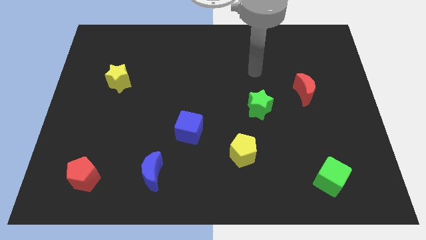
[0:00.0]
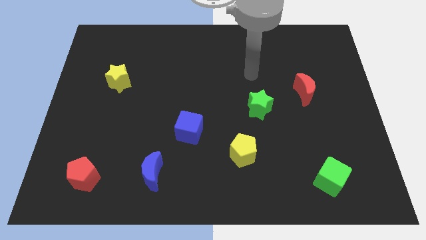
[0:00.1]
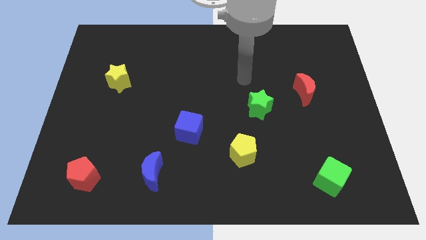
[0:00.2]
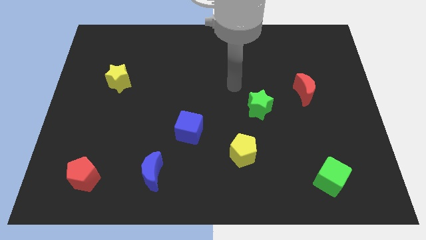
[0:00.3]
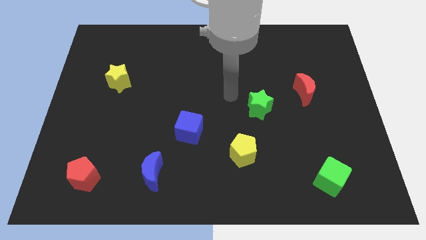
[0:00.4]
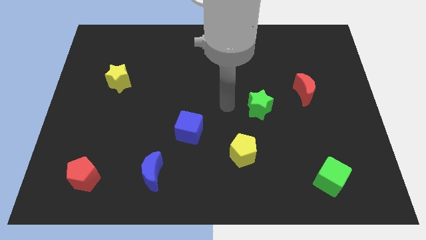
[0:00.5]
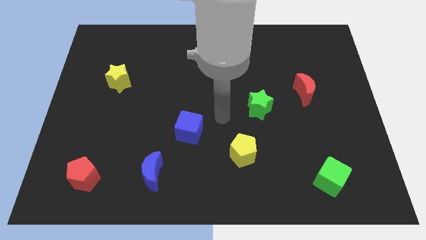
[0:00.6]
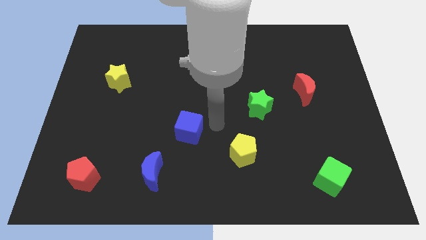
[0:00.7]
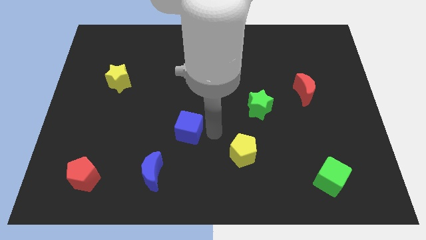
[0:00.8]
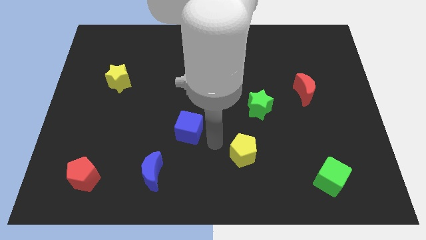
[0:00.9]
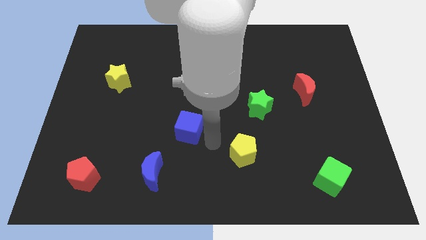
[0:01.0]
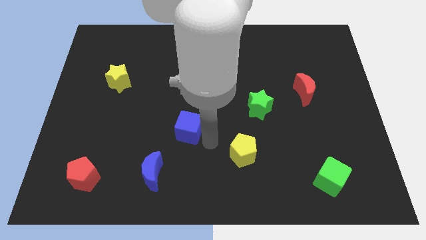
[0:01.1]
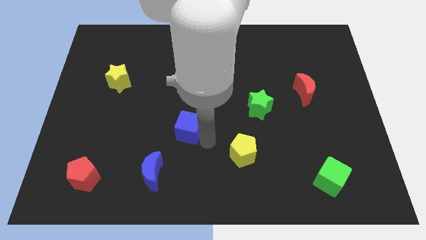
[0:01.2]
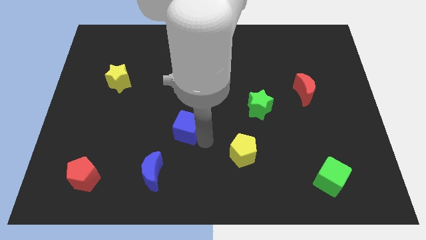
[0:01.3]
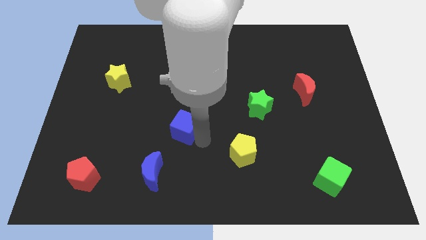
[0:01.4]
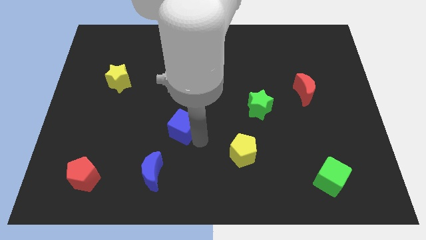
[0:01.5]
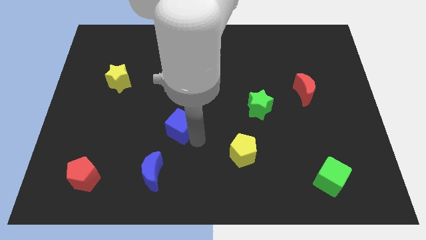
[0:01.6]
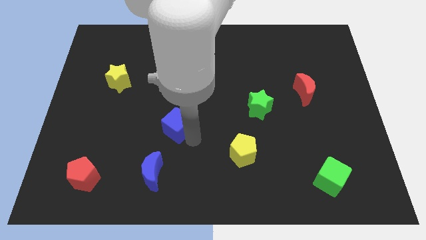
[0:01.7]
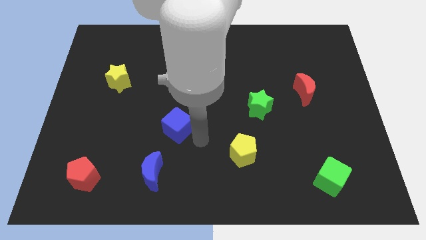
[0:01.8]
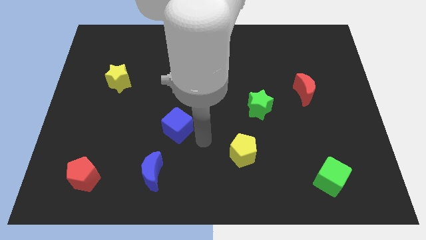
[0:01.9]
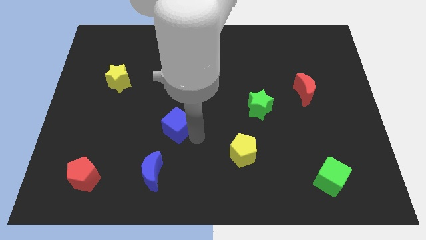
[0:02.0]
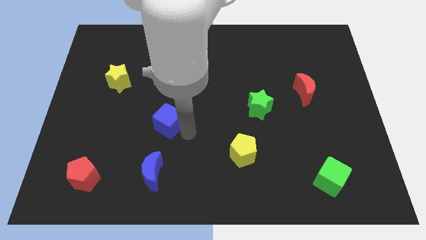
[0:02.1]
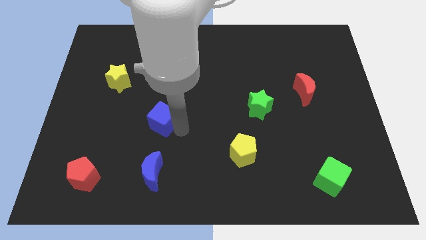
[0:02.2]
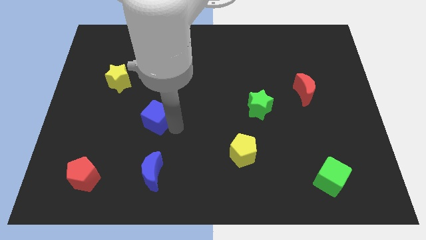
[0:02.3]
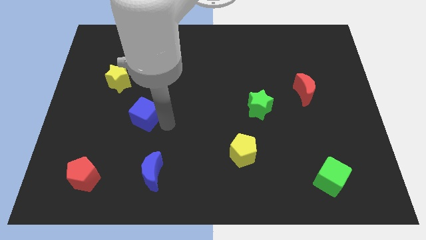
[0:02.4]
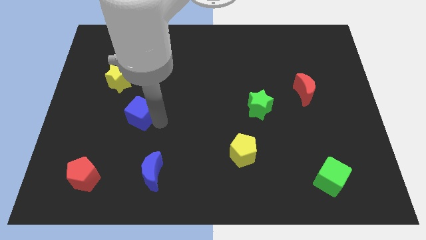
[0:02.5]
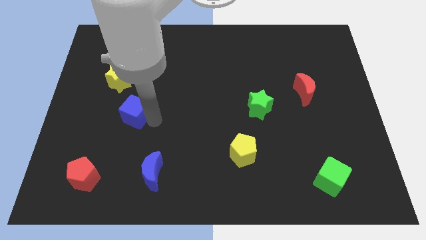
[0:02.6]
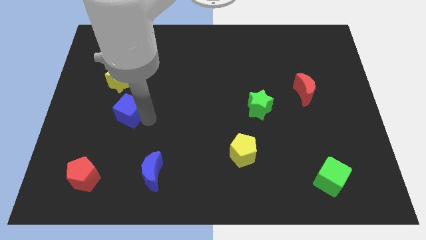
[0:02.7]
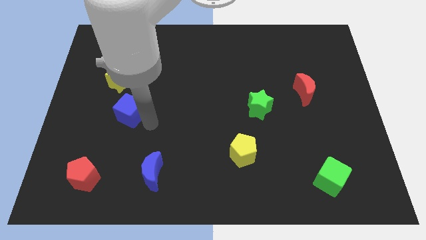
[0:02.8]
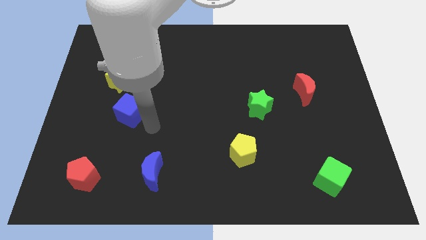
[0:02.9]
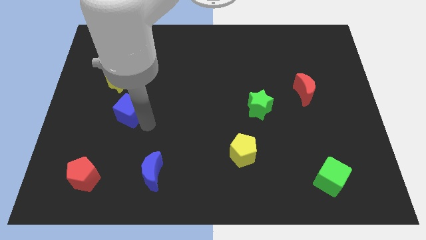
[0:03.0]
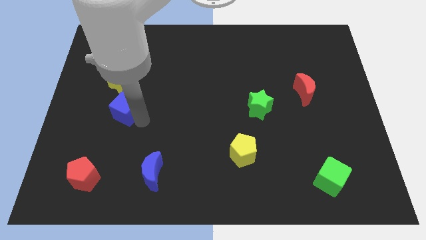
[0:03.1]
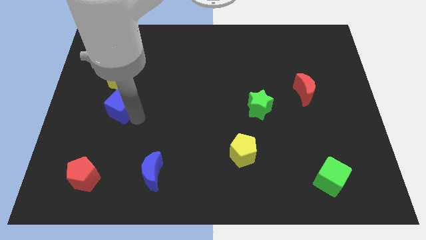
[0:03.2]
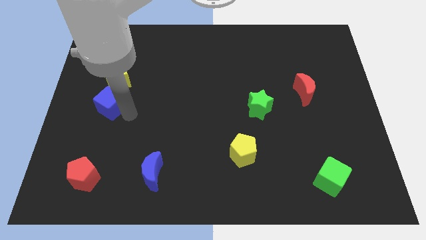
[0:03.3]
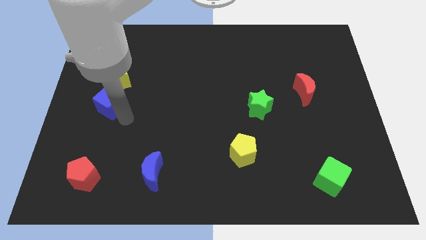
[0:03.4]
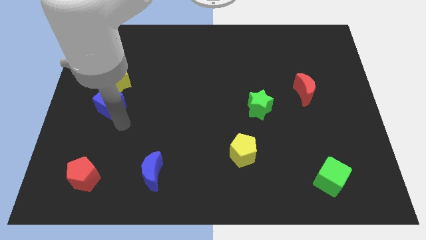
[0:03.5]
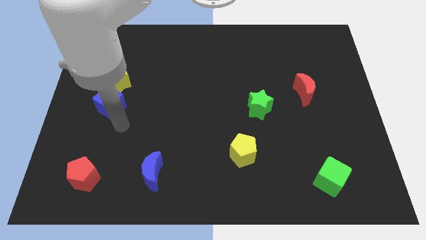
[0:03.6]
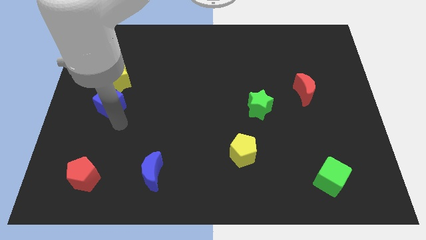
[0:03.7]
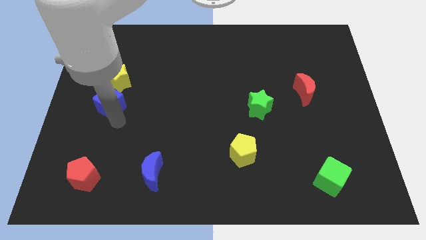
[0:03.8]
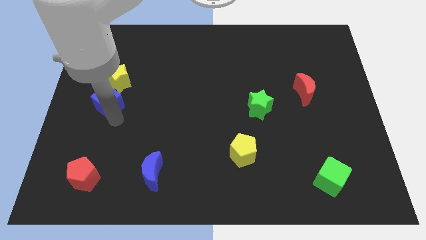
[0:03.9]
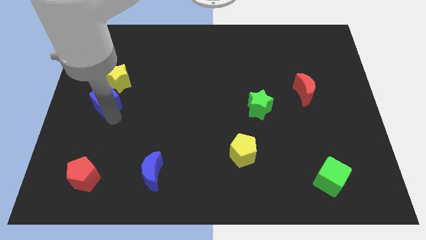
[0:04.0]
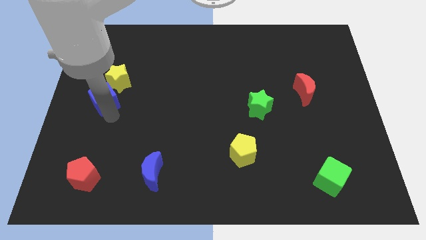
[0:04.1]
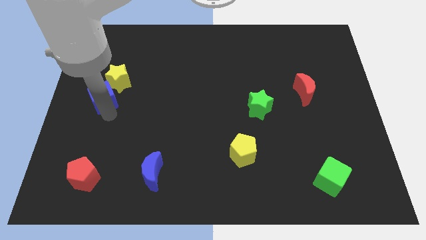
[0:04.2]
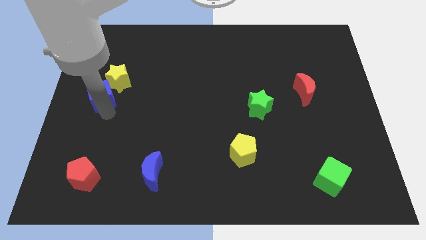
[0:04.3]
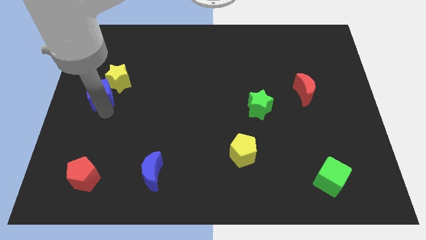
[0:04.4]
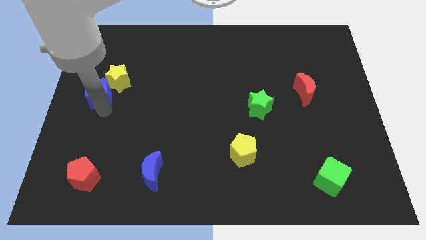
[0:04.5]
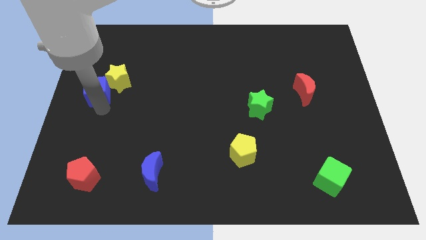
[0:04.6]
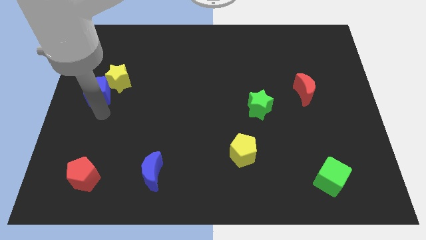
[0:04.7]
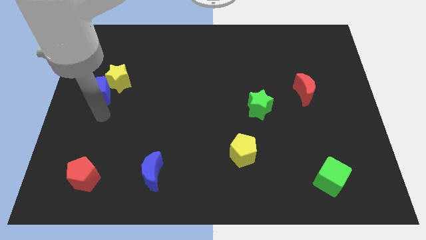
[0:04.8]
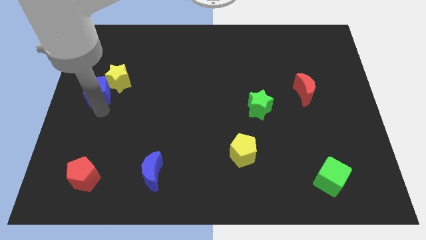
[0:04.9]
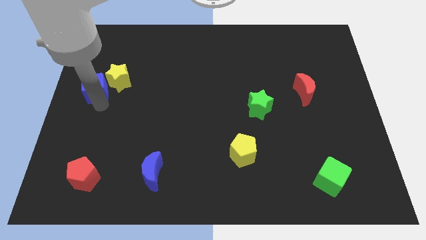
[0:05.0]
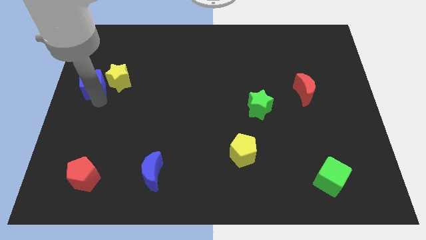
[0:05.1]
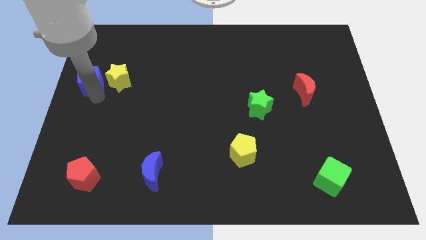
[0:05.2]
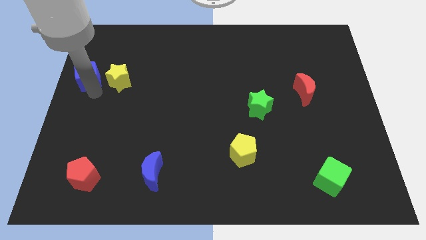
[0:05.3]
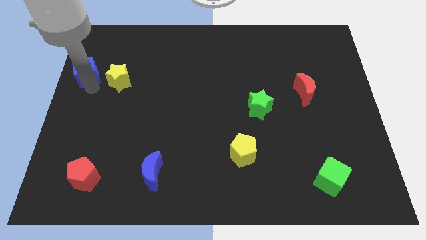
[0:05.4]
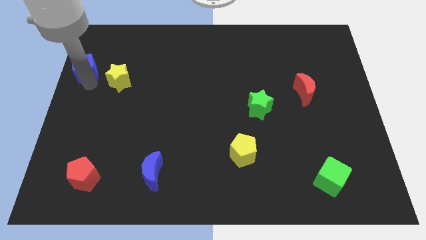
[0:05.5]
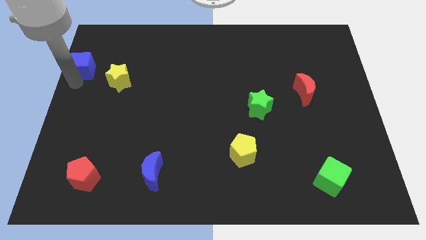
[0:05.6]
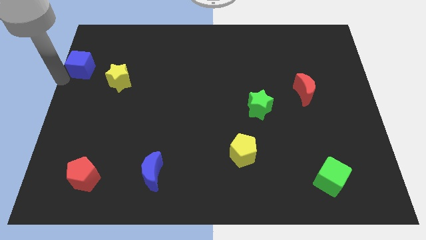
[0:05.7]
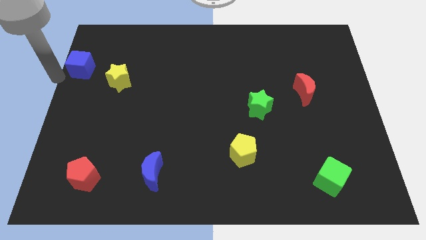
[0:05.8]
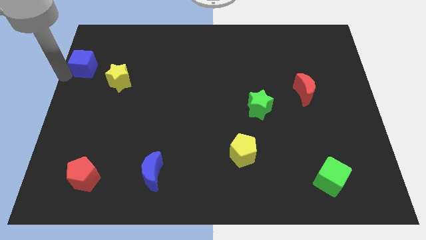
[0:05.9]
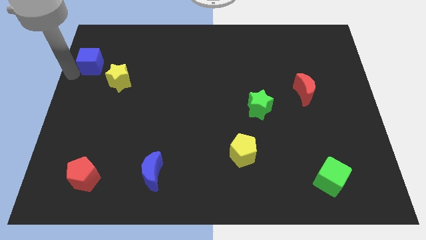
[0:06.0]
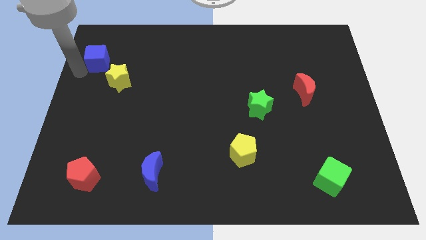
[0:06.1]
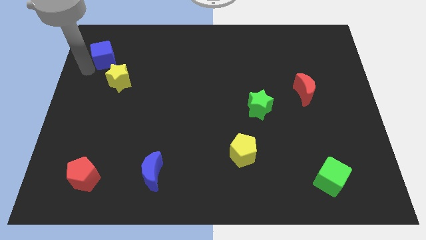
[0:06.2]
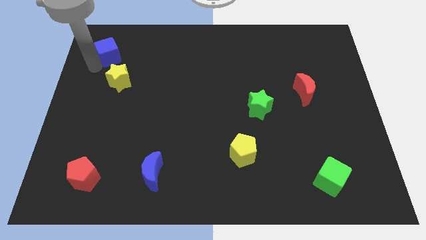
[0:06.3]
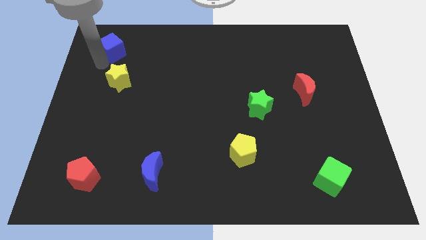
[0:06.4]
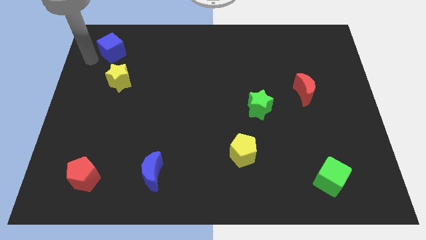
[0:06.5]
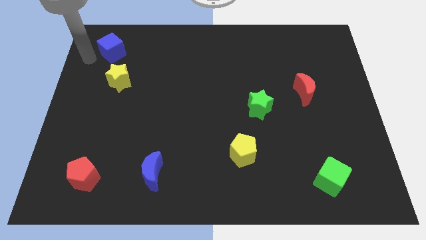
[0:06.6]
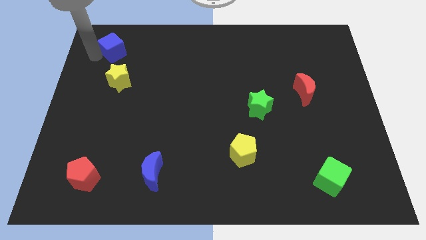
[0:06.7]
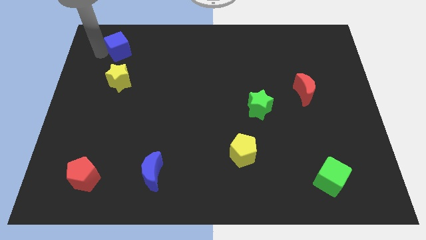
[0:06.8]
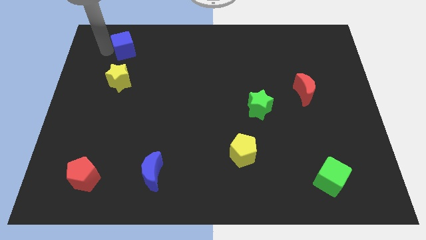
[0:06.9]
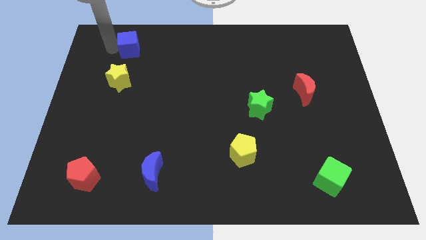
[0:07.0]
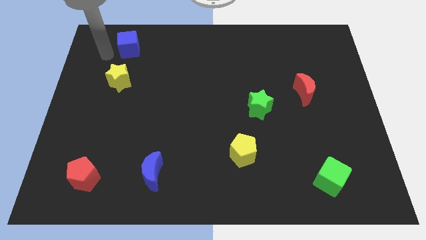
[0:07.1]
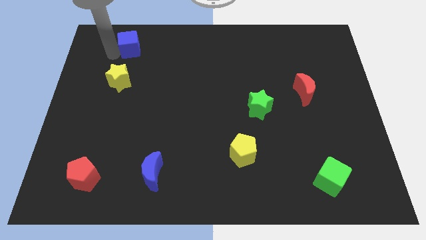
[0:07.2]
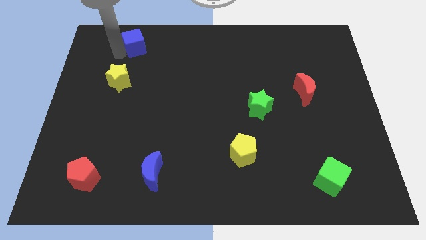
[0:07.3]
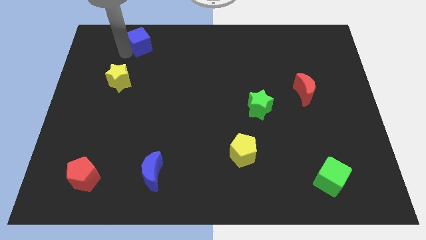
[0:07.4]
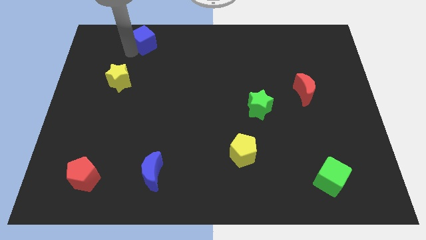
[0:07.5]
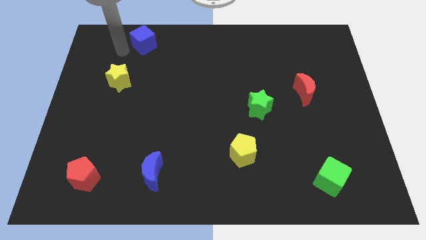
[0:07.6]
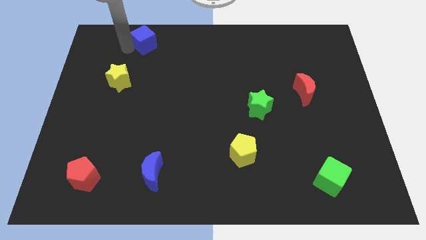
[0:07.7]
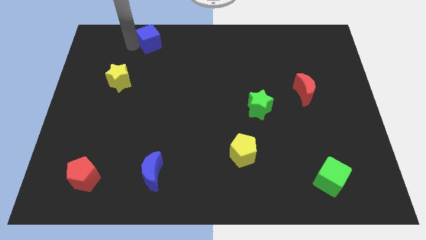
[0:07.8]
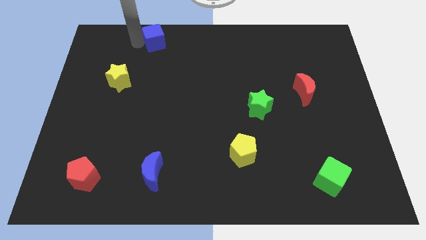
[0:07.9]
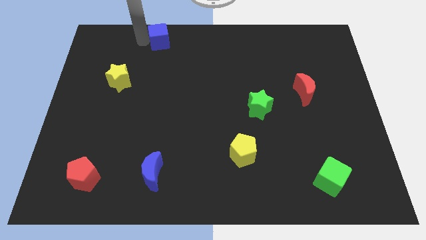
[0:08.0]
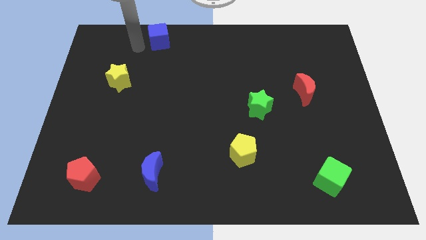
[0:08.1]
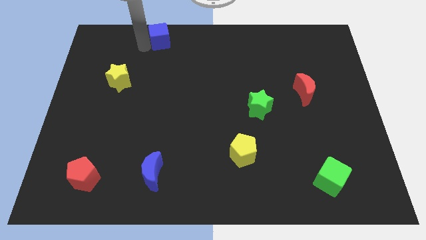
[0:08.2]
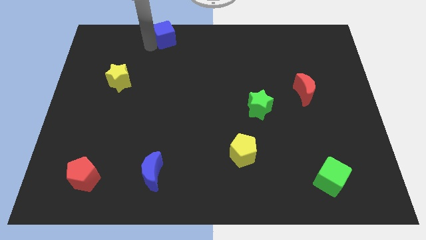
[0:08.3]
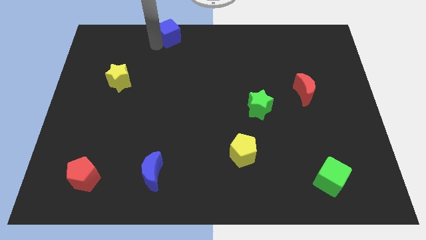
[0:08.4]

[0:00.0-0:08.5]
put the blue cube to the towards your base
